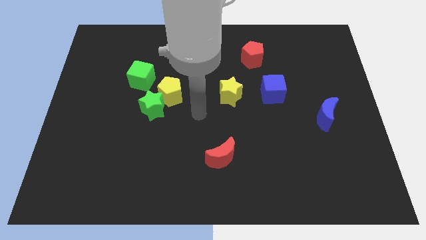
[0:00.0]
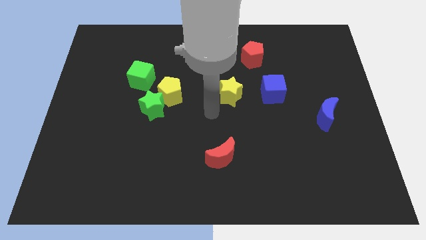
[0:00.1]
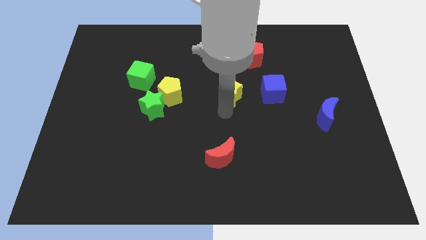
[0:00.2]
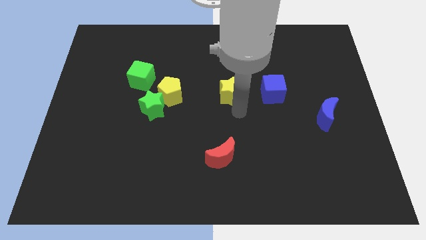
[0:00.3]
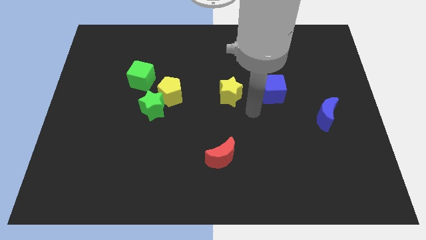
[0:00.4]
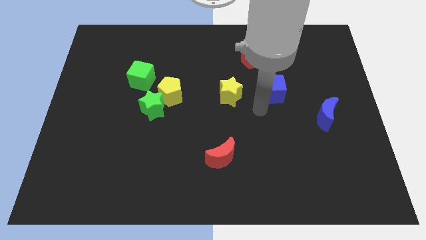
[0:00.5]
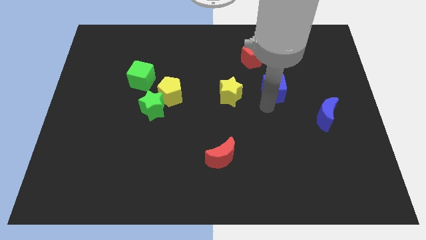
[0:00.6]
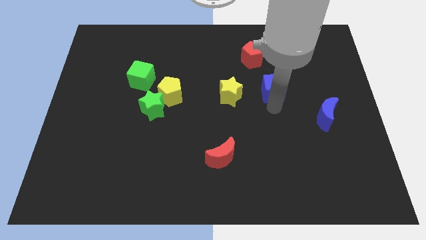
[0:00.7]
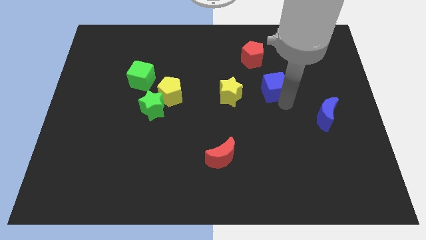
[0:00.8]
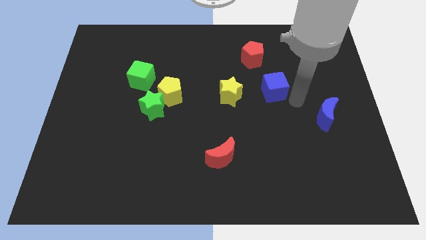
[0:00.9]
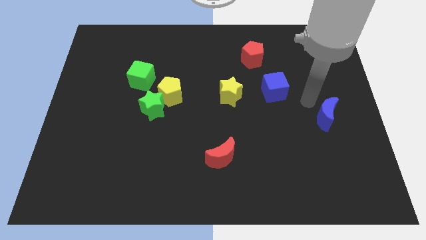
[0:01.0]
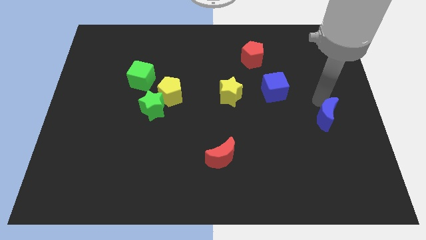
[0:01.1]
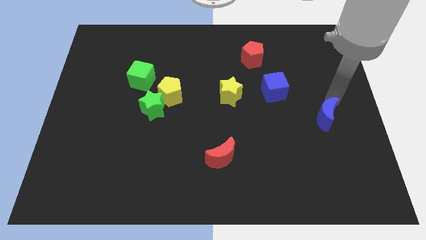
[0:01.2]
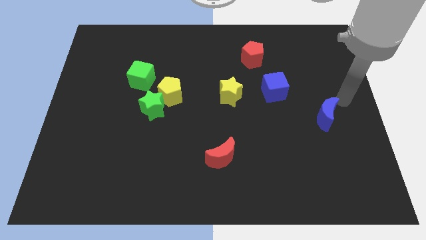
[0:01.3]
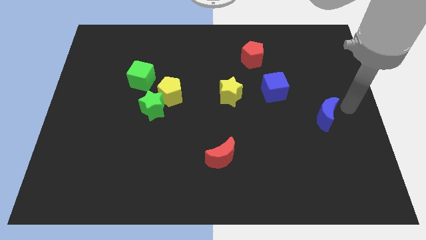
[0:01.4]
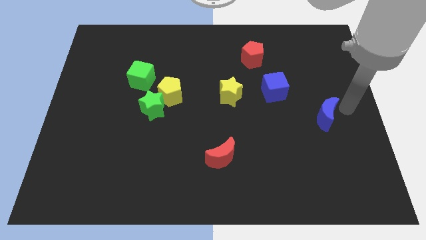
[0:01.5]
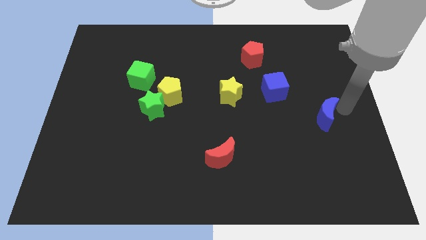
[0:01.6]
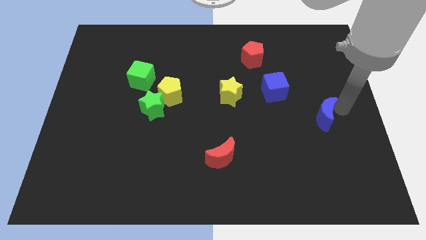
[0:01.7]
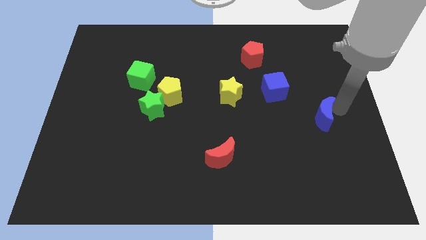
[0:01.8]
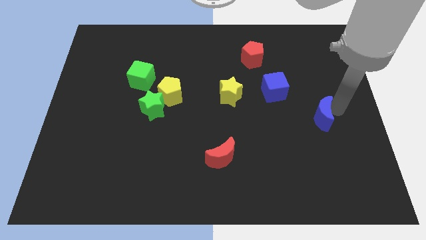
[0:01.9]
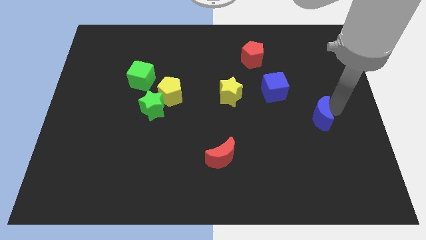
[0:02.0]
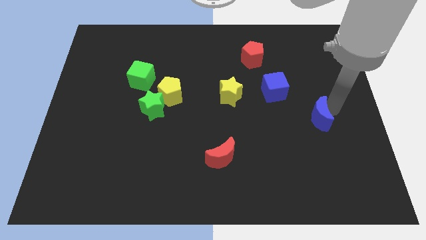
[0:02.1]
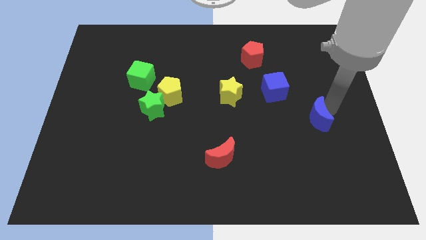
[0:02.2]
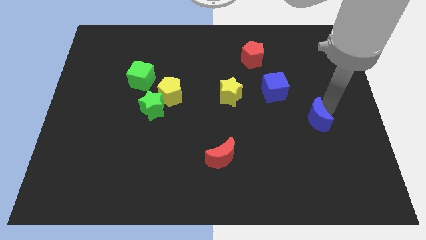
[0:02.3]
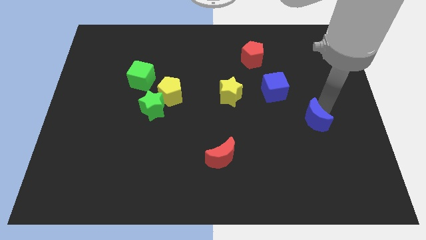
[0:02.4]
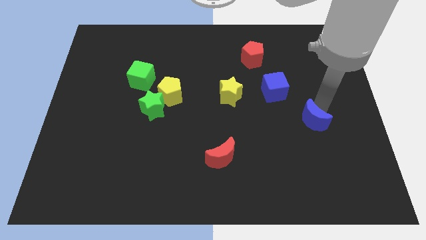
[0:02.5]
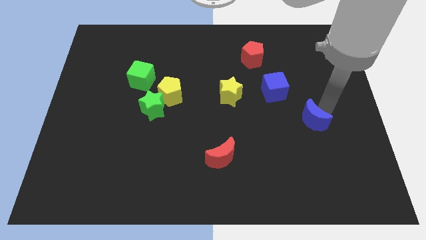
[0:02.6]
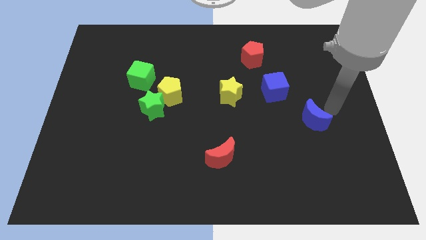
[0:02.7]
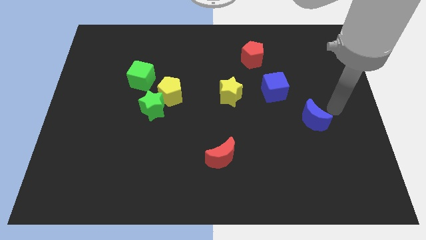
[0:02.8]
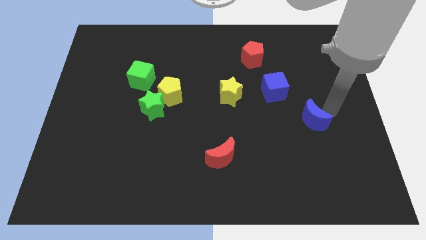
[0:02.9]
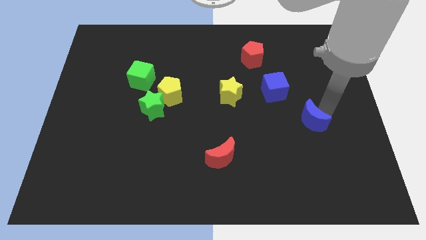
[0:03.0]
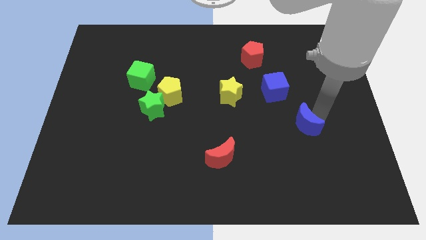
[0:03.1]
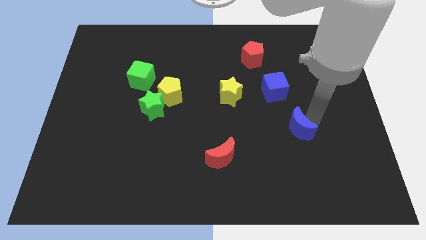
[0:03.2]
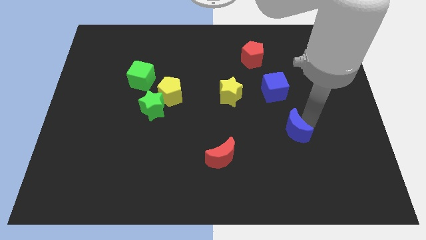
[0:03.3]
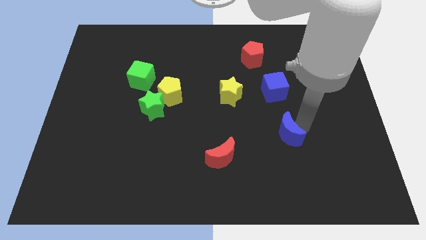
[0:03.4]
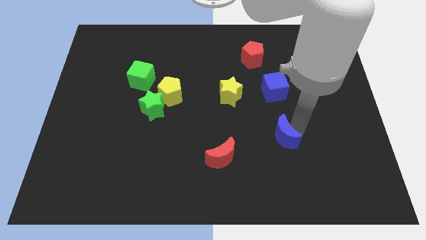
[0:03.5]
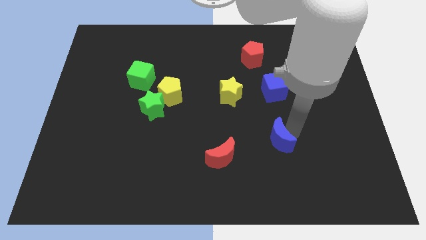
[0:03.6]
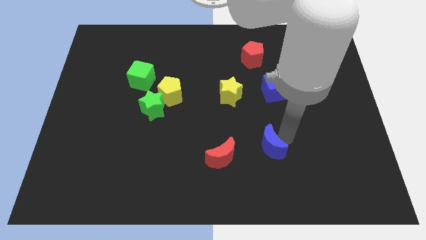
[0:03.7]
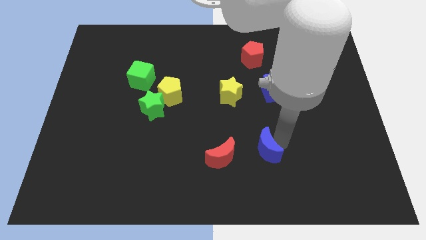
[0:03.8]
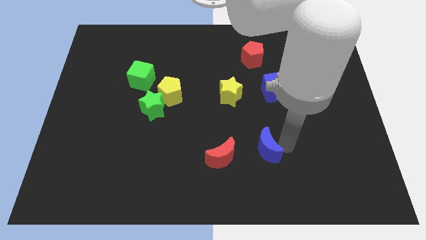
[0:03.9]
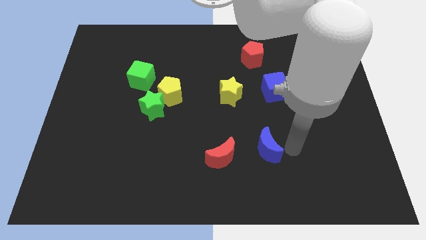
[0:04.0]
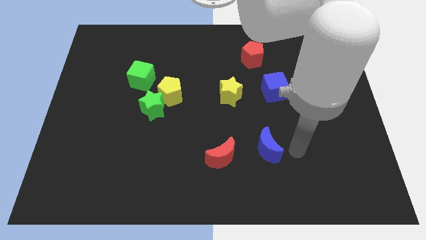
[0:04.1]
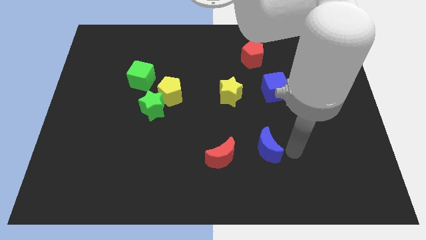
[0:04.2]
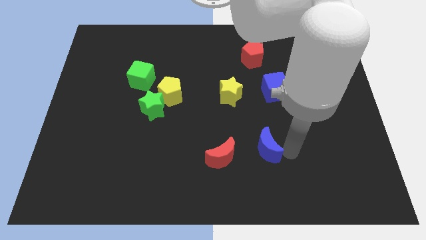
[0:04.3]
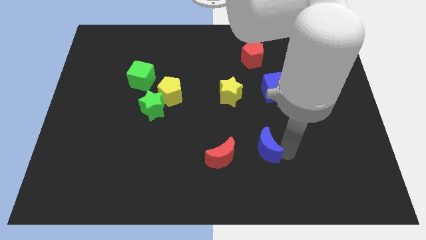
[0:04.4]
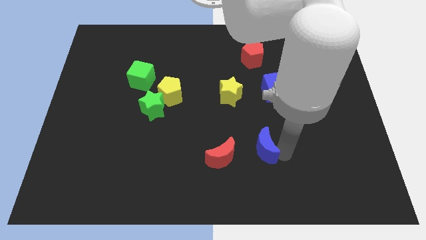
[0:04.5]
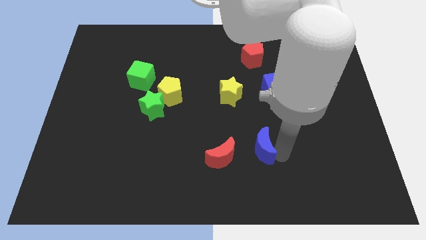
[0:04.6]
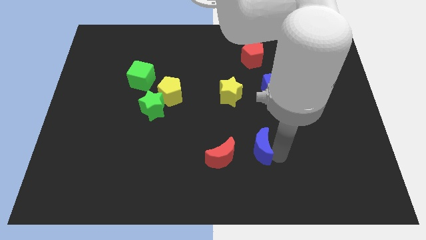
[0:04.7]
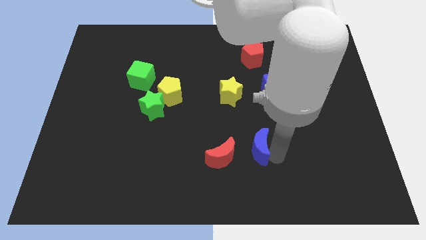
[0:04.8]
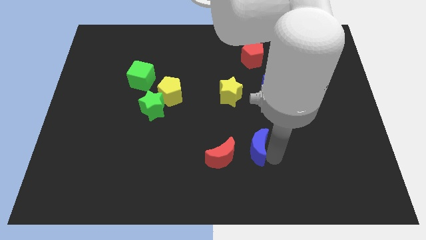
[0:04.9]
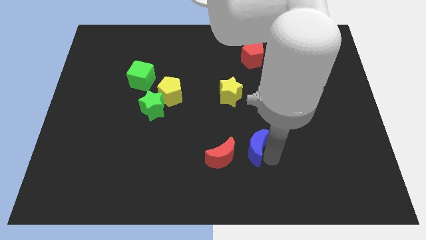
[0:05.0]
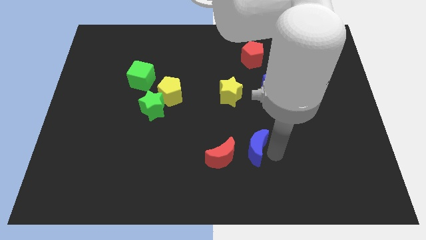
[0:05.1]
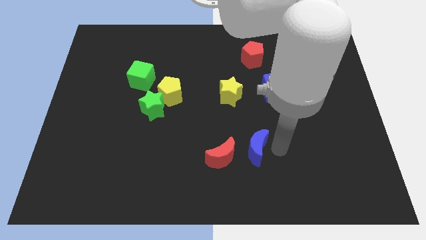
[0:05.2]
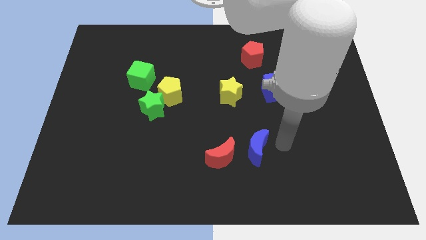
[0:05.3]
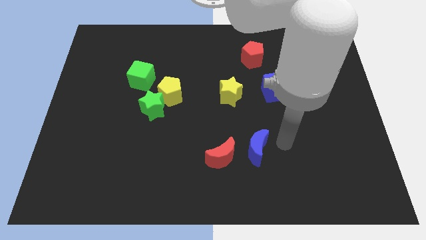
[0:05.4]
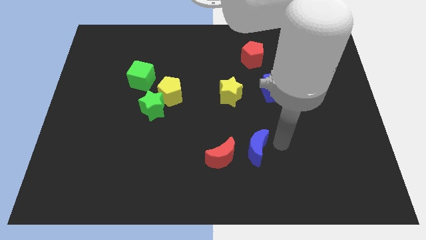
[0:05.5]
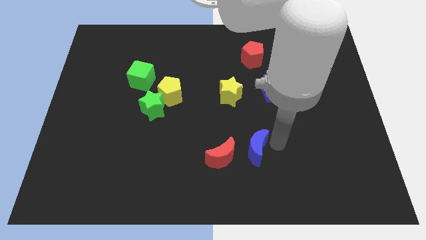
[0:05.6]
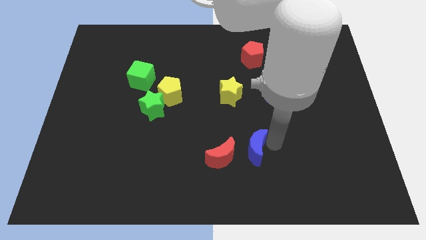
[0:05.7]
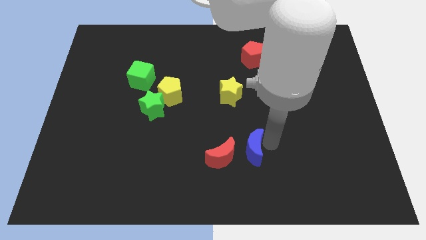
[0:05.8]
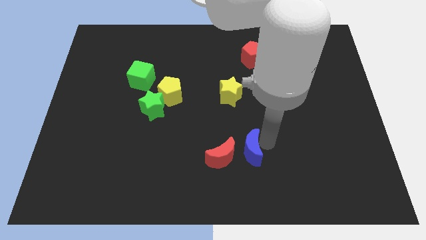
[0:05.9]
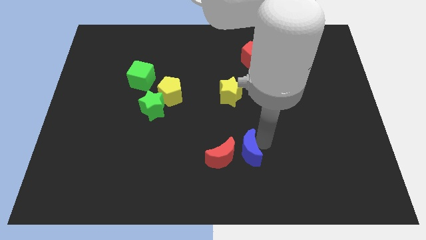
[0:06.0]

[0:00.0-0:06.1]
move the blue moon towards the red moon
